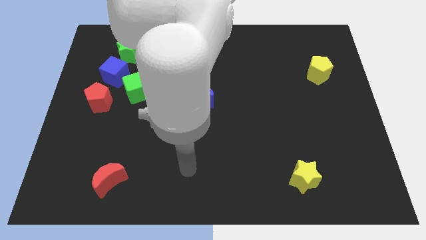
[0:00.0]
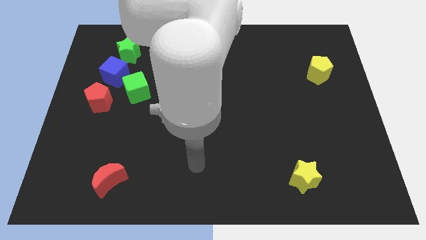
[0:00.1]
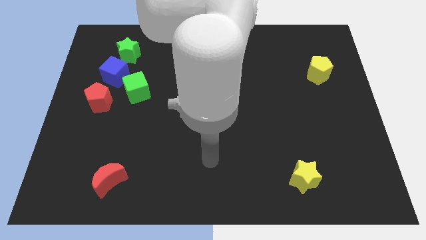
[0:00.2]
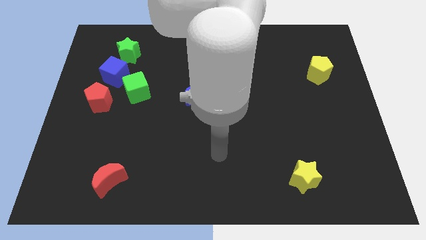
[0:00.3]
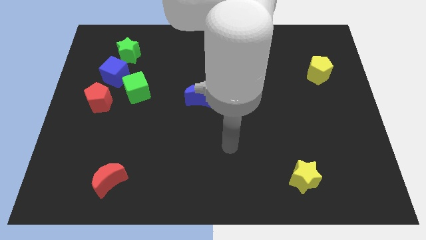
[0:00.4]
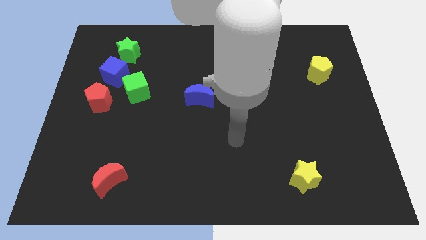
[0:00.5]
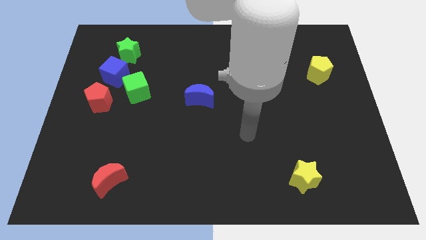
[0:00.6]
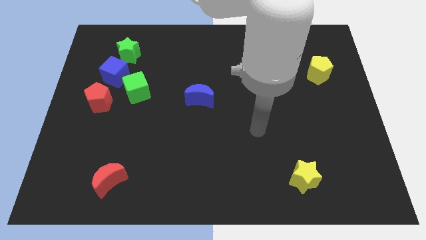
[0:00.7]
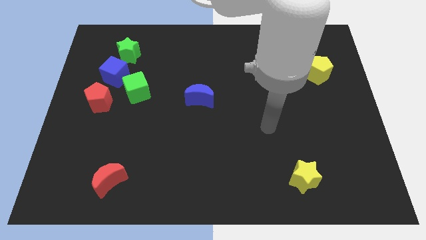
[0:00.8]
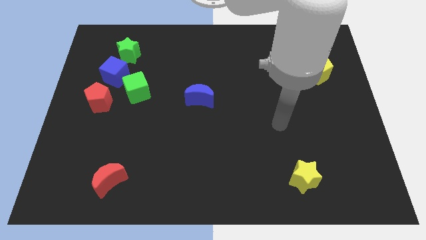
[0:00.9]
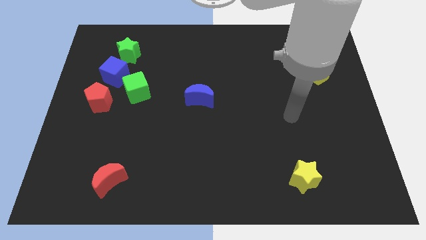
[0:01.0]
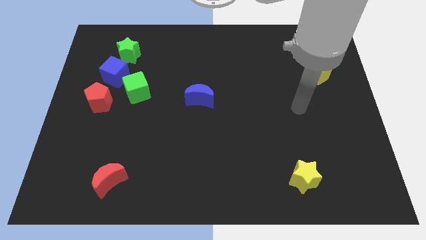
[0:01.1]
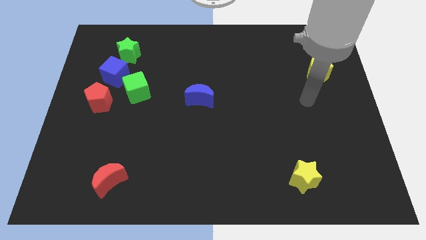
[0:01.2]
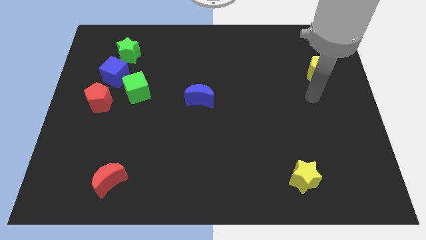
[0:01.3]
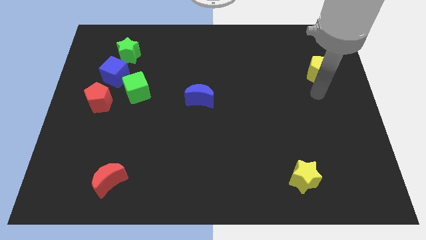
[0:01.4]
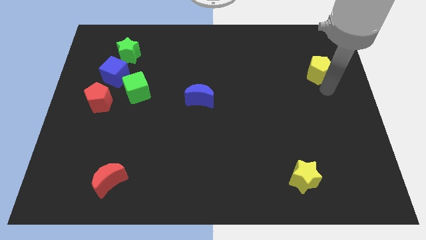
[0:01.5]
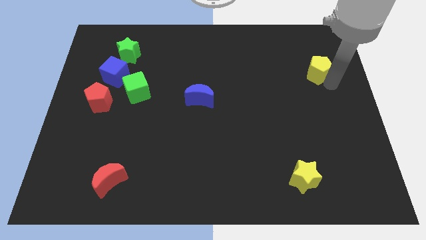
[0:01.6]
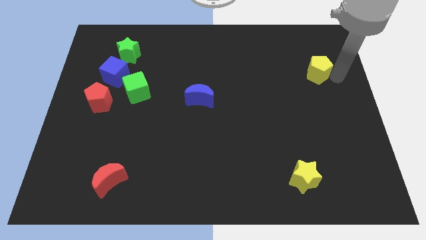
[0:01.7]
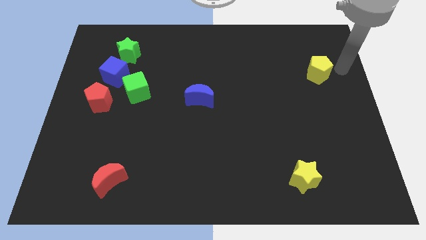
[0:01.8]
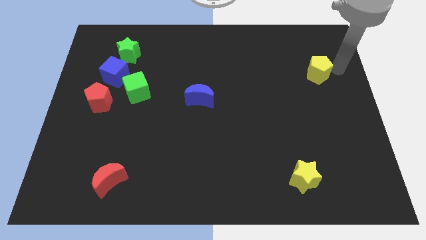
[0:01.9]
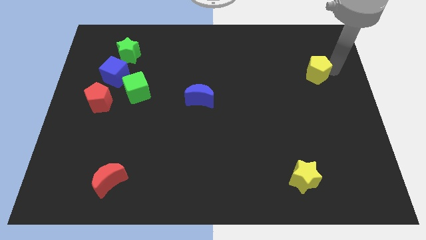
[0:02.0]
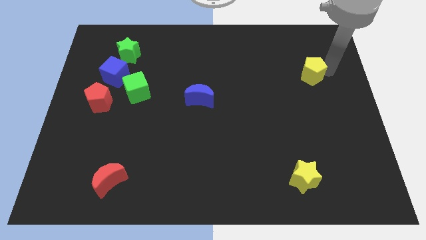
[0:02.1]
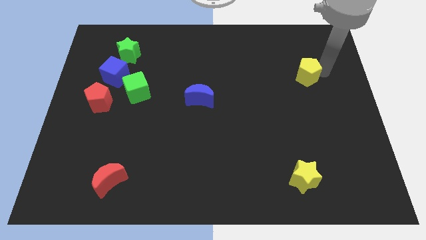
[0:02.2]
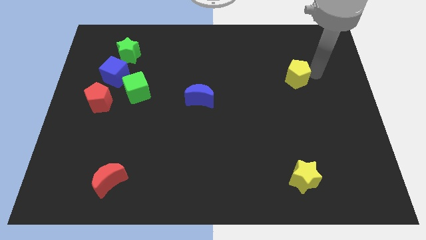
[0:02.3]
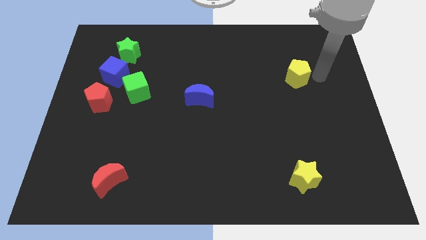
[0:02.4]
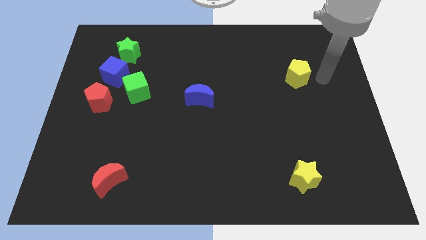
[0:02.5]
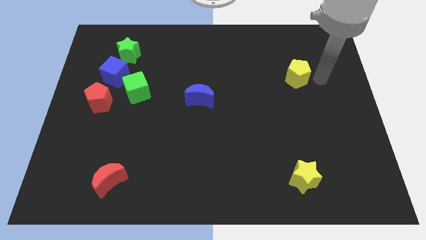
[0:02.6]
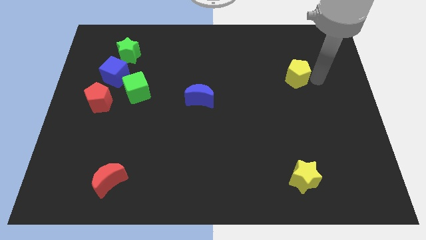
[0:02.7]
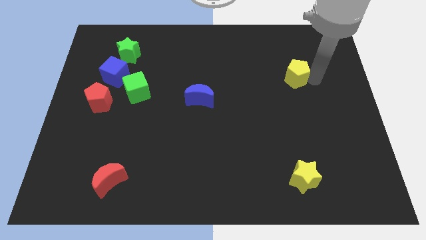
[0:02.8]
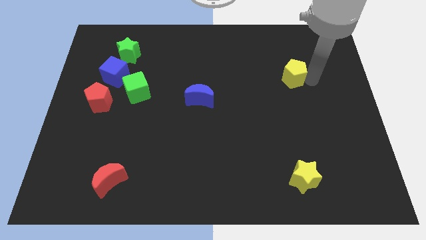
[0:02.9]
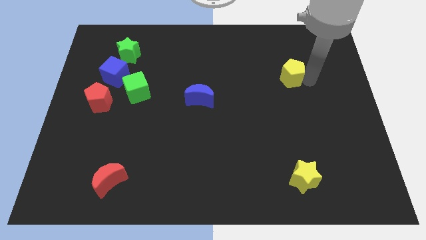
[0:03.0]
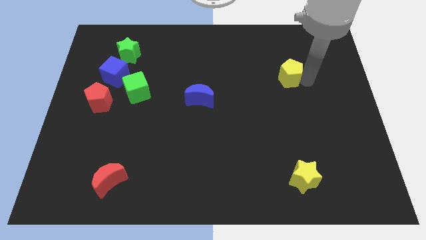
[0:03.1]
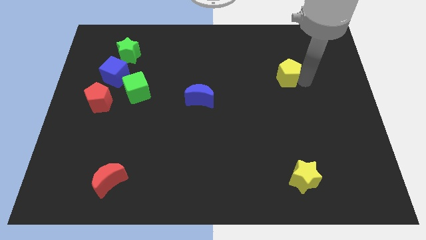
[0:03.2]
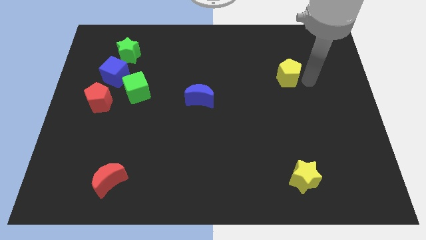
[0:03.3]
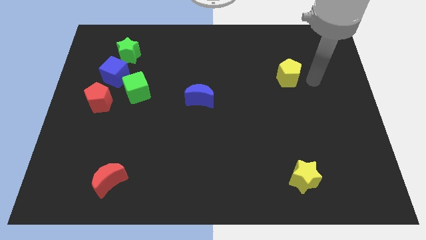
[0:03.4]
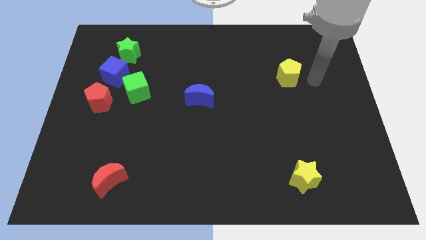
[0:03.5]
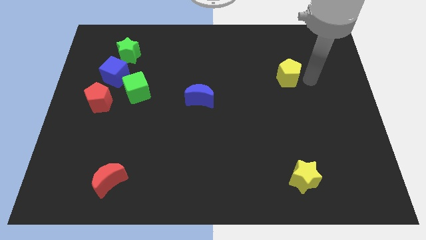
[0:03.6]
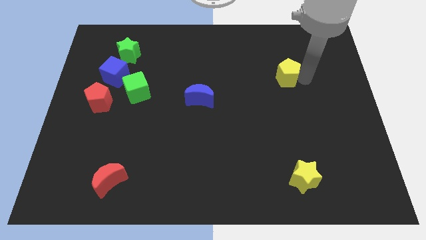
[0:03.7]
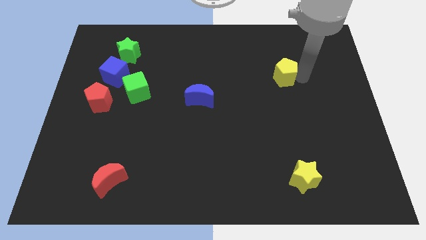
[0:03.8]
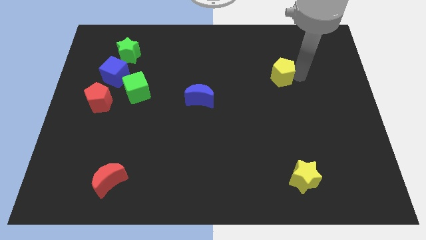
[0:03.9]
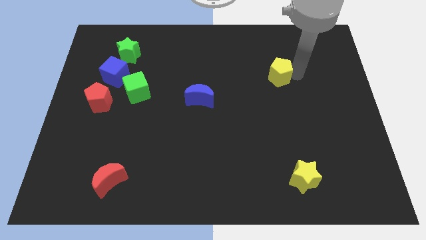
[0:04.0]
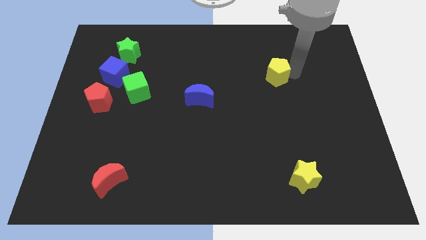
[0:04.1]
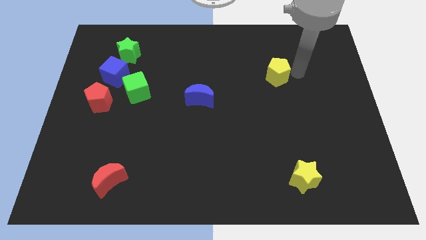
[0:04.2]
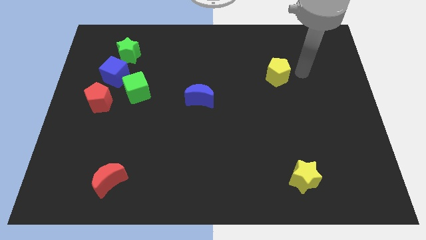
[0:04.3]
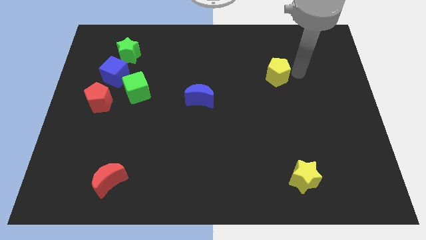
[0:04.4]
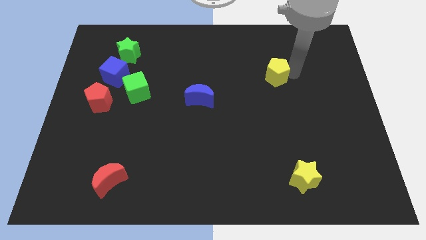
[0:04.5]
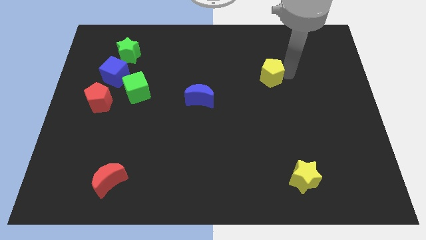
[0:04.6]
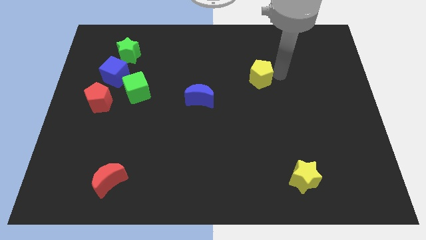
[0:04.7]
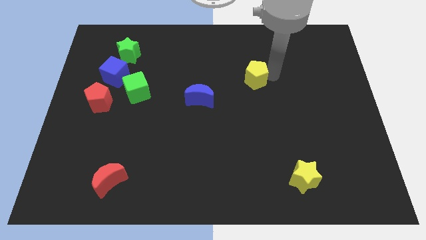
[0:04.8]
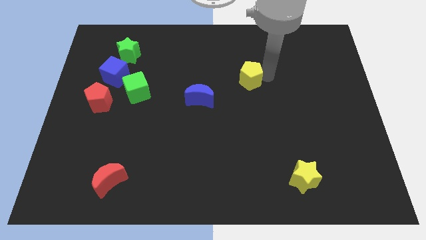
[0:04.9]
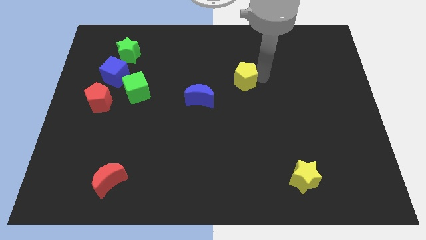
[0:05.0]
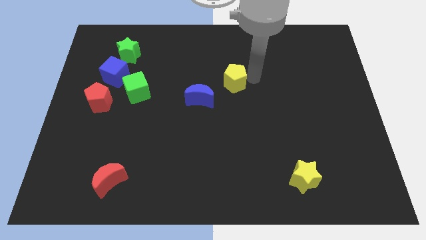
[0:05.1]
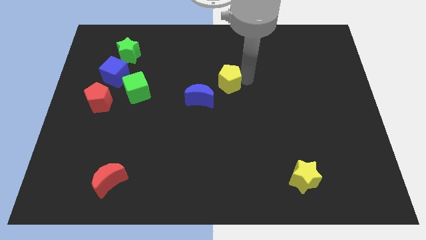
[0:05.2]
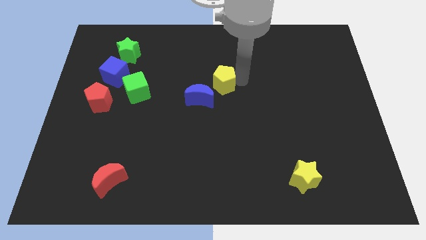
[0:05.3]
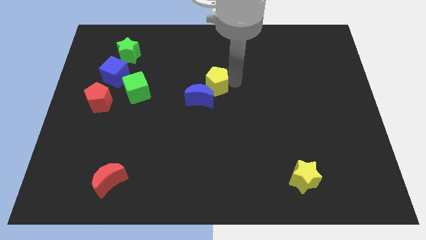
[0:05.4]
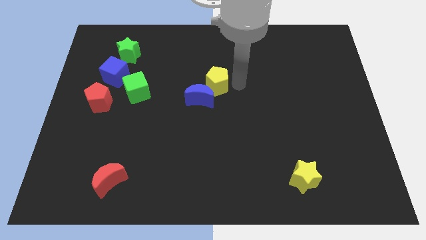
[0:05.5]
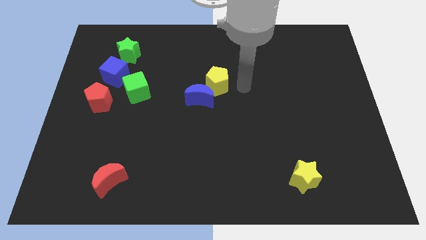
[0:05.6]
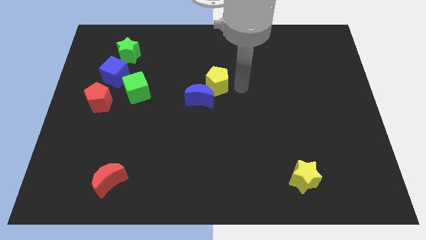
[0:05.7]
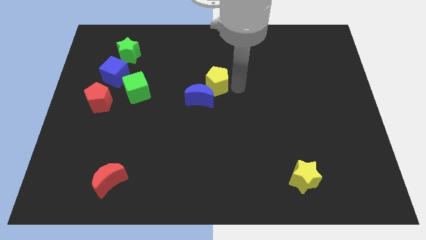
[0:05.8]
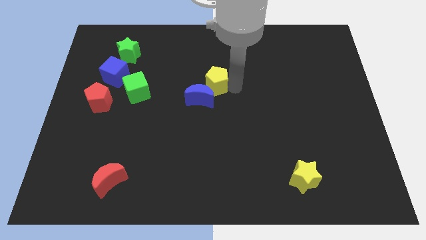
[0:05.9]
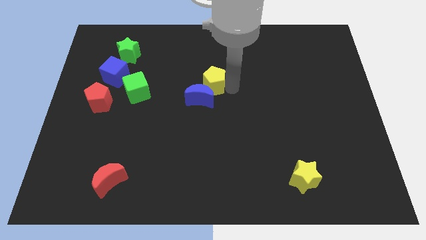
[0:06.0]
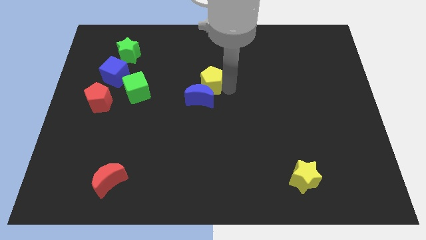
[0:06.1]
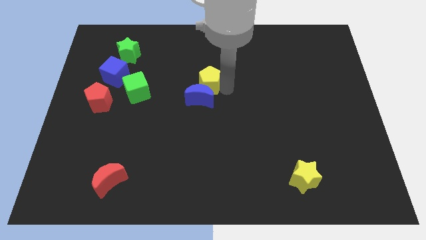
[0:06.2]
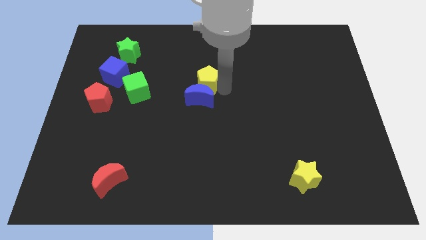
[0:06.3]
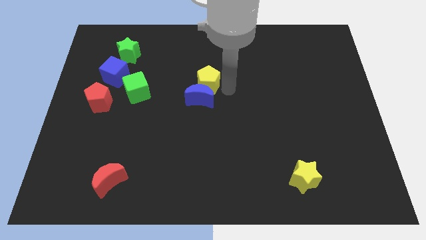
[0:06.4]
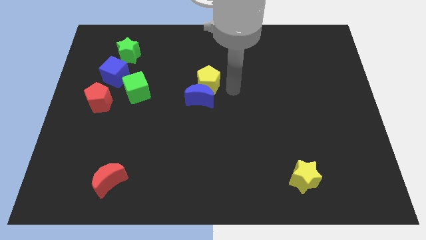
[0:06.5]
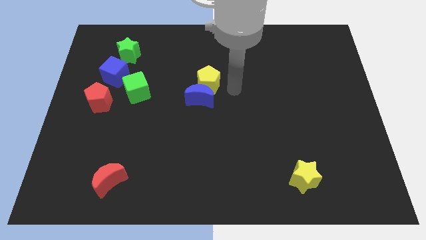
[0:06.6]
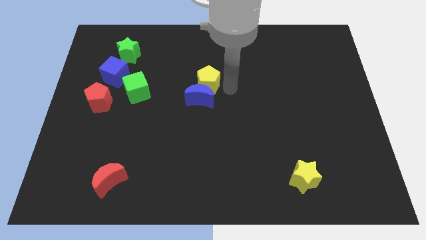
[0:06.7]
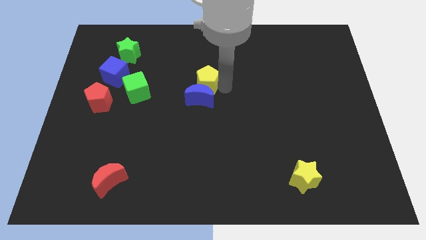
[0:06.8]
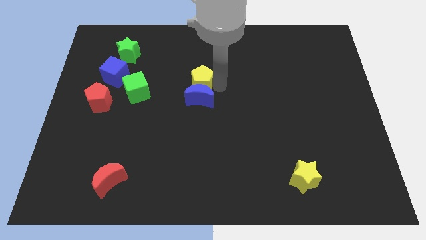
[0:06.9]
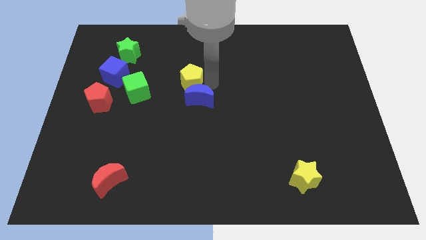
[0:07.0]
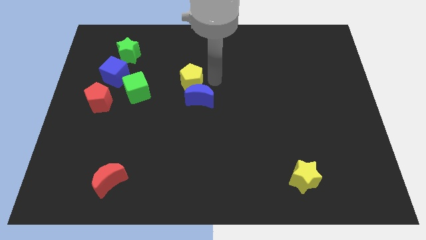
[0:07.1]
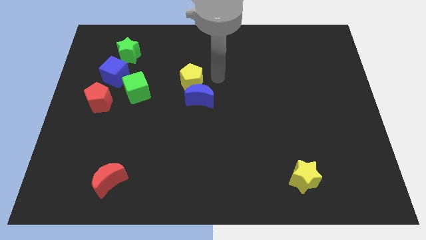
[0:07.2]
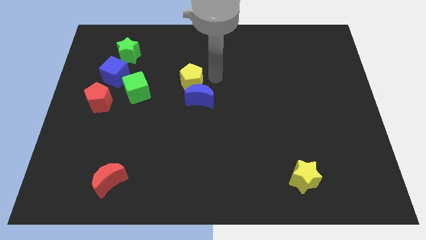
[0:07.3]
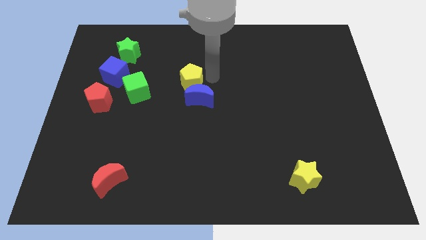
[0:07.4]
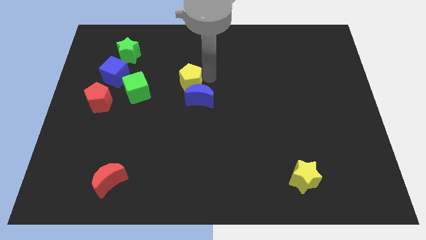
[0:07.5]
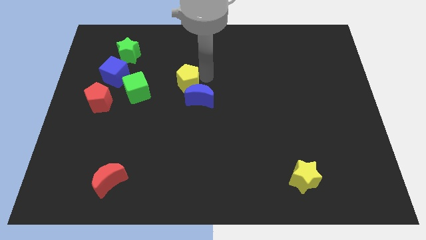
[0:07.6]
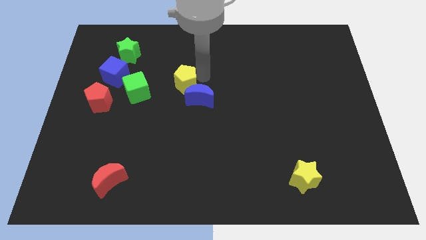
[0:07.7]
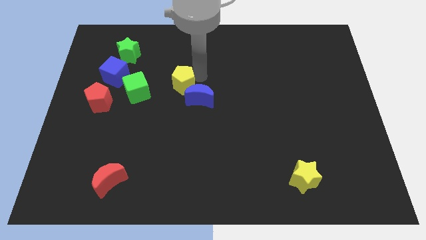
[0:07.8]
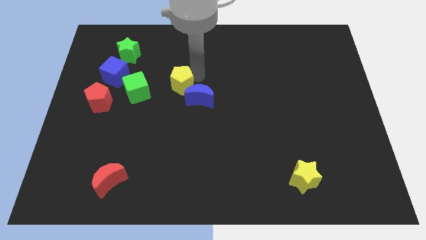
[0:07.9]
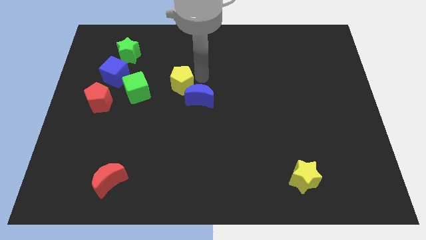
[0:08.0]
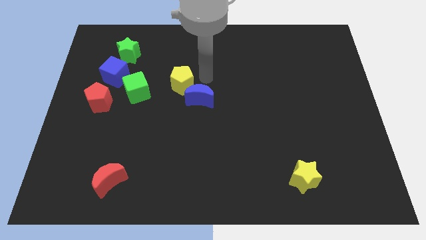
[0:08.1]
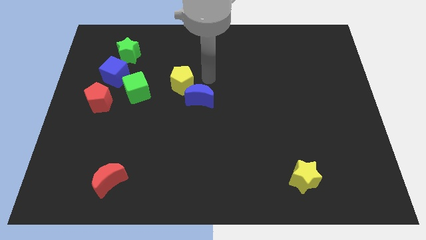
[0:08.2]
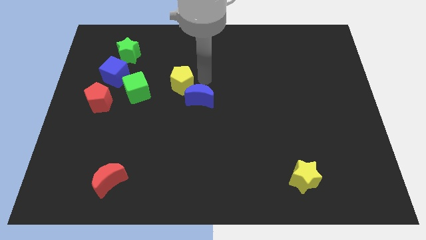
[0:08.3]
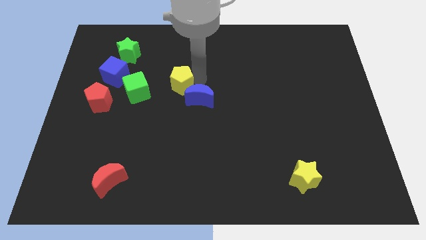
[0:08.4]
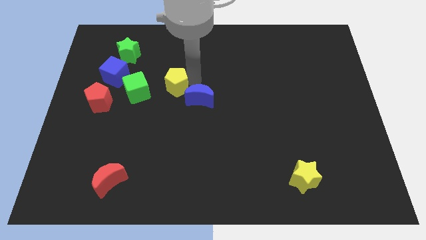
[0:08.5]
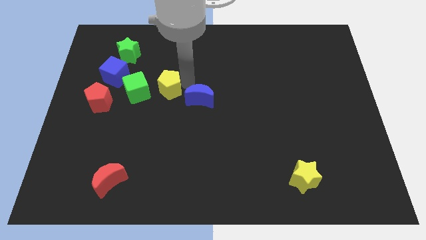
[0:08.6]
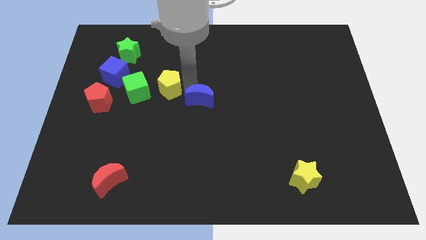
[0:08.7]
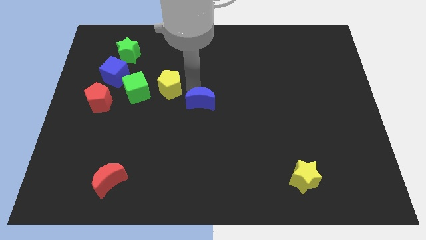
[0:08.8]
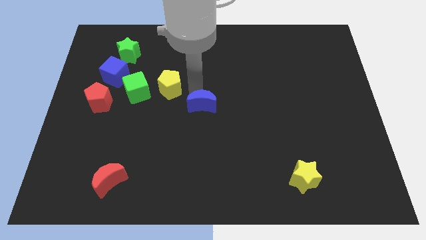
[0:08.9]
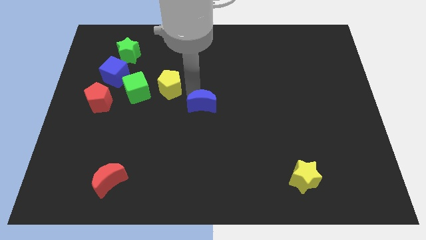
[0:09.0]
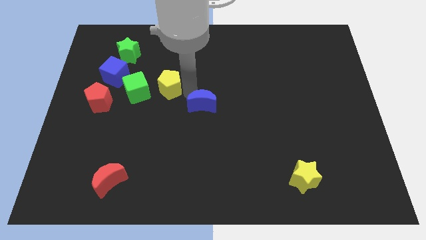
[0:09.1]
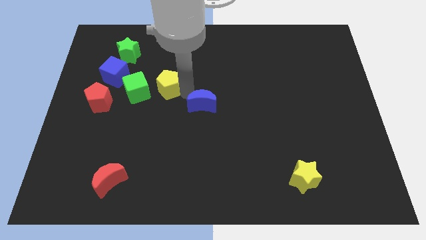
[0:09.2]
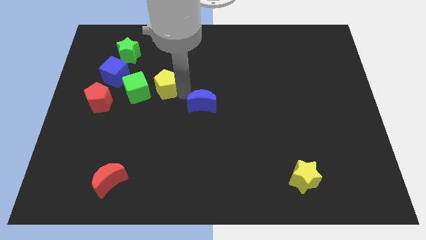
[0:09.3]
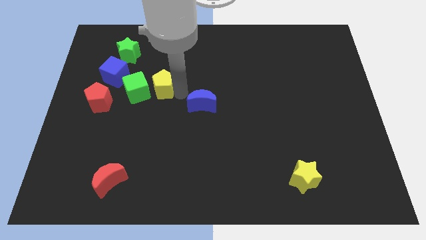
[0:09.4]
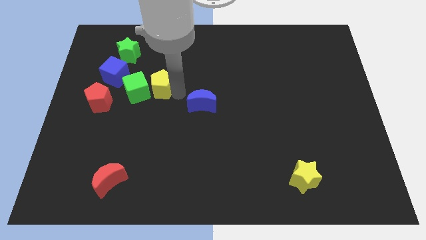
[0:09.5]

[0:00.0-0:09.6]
move the yellow pentagon next to the green cube
